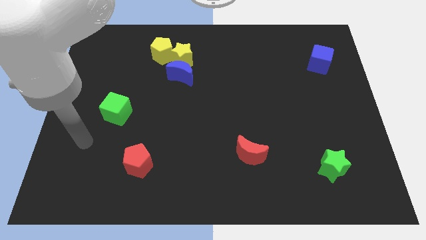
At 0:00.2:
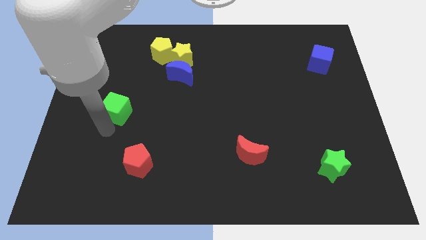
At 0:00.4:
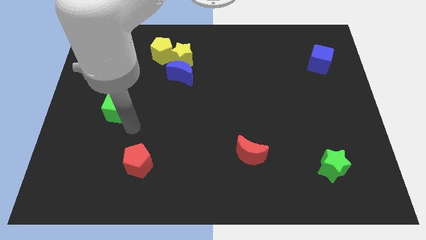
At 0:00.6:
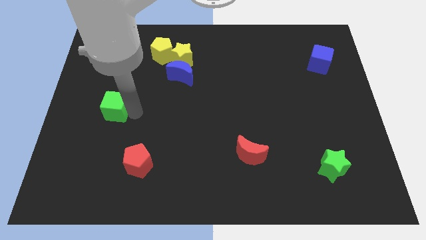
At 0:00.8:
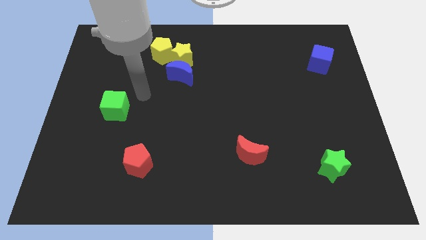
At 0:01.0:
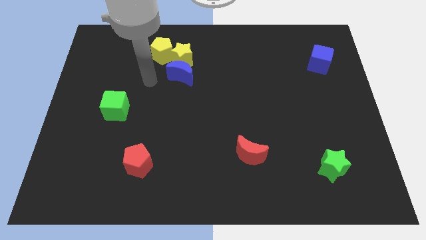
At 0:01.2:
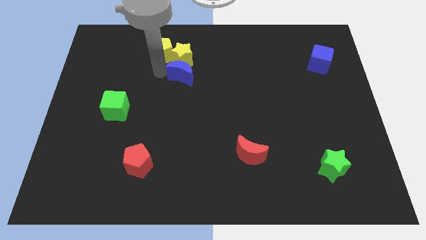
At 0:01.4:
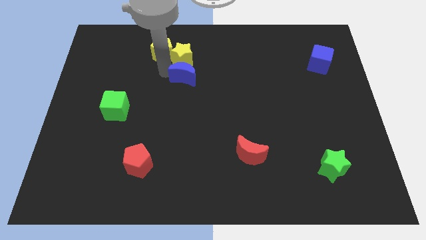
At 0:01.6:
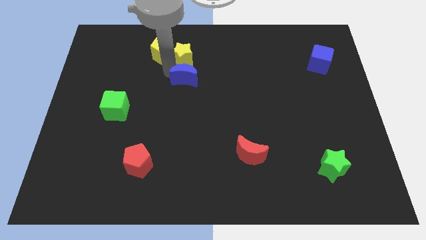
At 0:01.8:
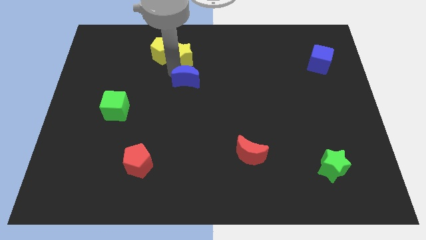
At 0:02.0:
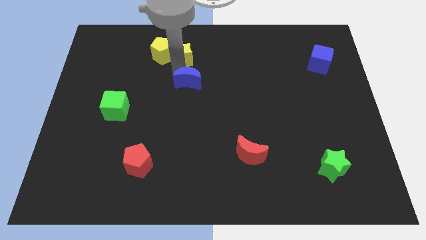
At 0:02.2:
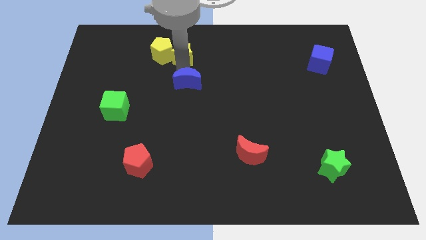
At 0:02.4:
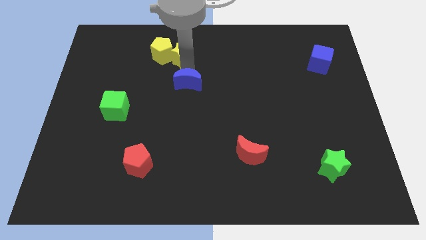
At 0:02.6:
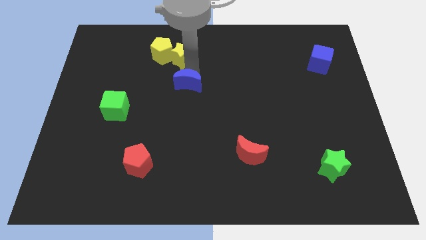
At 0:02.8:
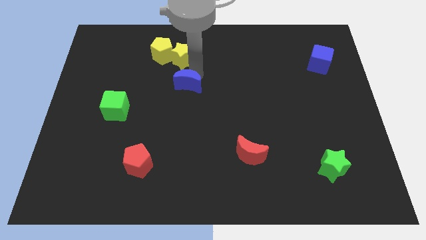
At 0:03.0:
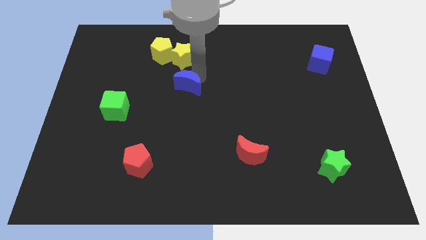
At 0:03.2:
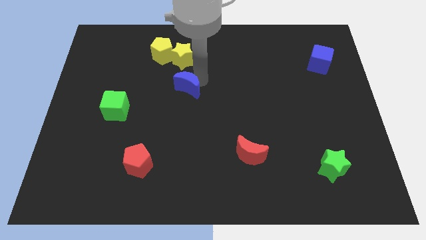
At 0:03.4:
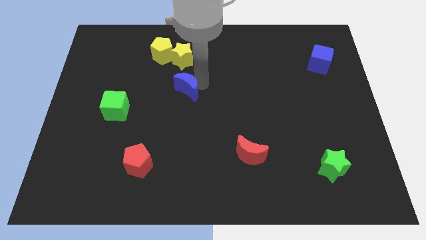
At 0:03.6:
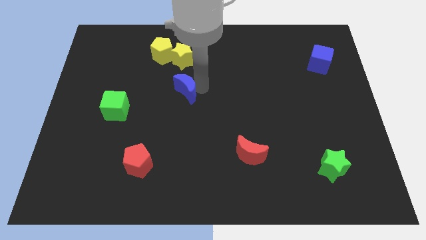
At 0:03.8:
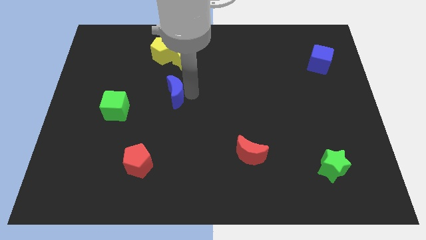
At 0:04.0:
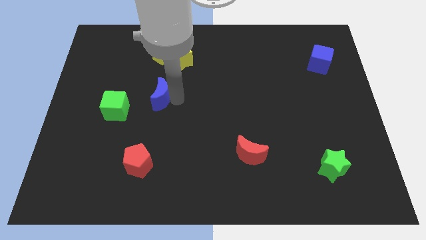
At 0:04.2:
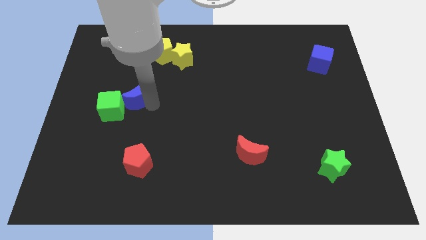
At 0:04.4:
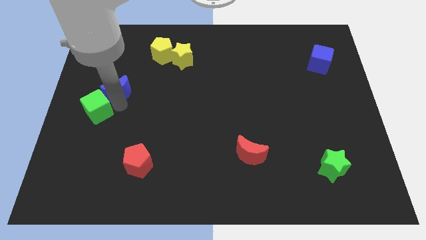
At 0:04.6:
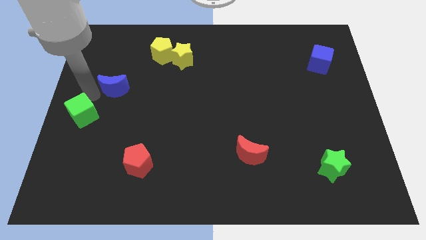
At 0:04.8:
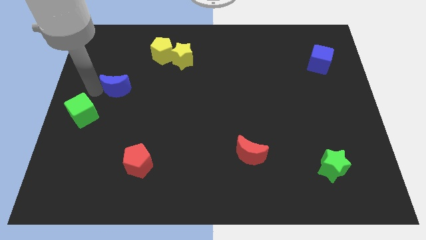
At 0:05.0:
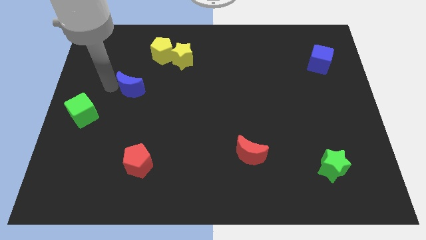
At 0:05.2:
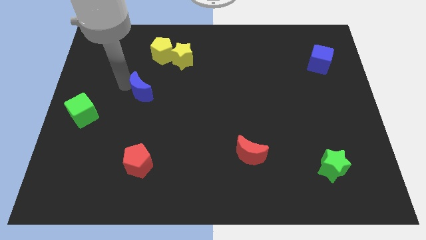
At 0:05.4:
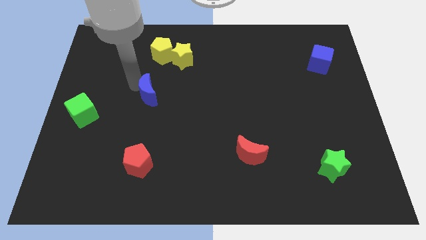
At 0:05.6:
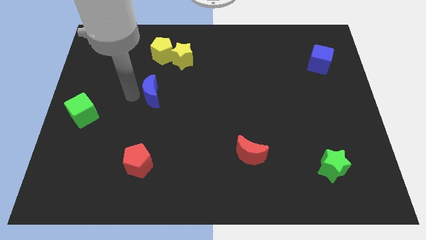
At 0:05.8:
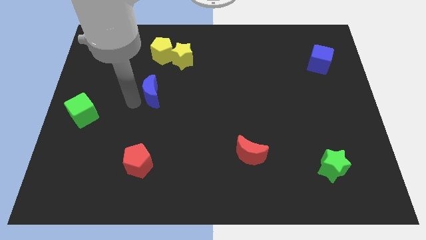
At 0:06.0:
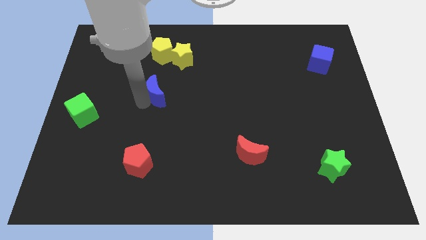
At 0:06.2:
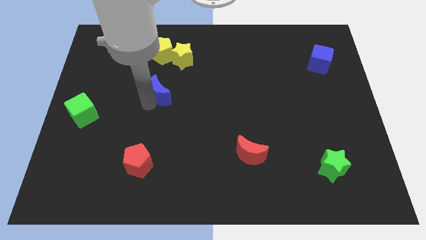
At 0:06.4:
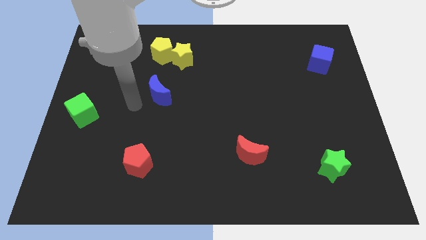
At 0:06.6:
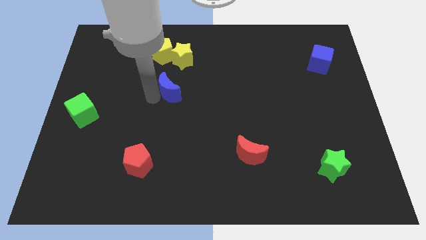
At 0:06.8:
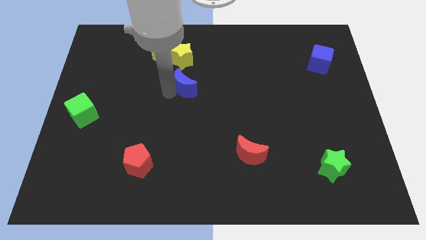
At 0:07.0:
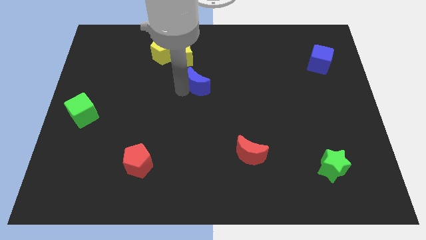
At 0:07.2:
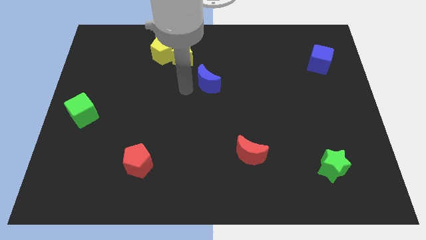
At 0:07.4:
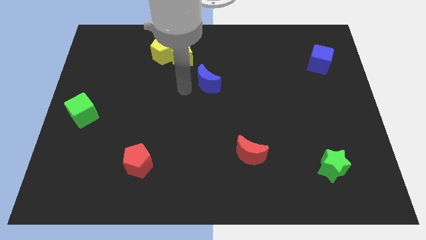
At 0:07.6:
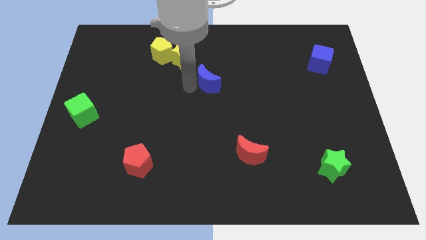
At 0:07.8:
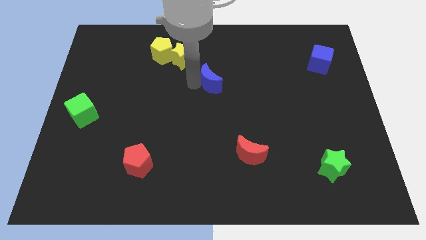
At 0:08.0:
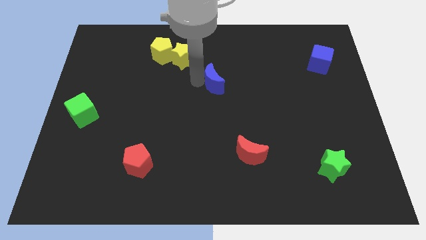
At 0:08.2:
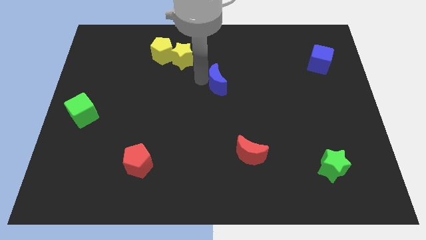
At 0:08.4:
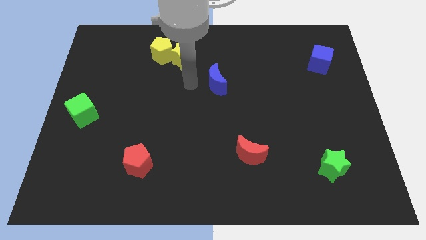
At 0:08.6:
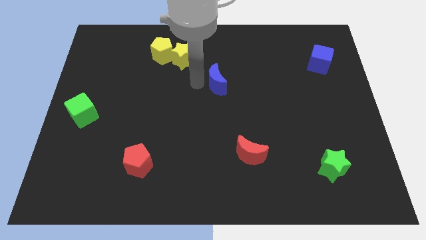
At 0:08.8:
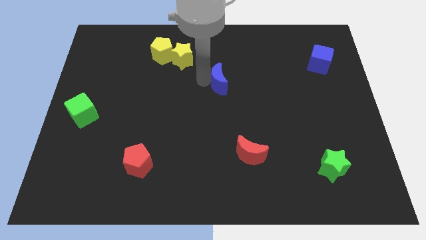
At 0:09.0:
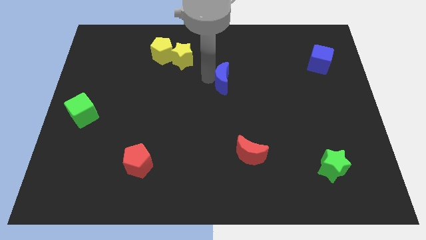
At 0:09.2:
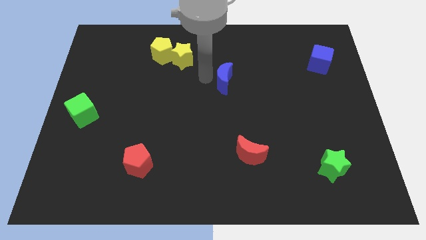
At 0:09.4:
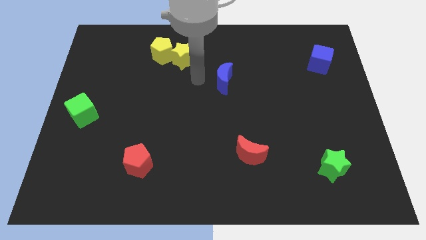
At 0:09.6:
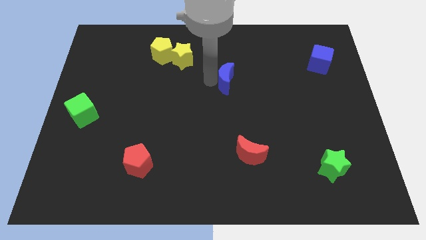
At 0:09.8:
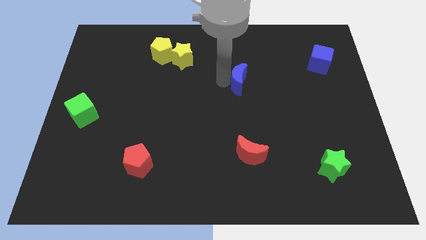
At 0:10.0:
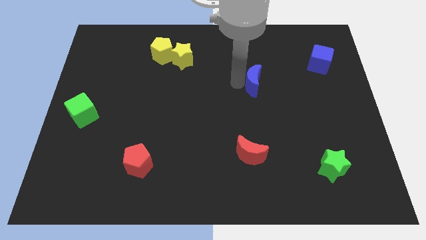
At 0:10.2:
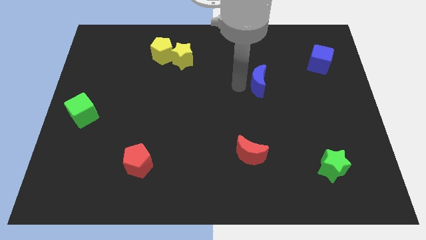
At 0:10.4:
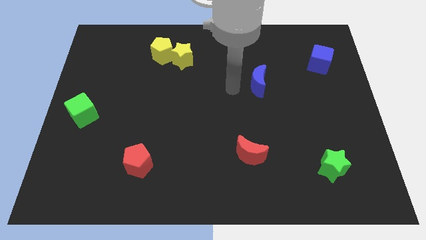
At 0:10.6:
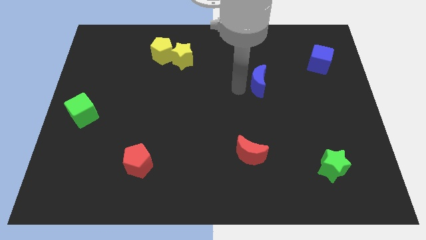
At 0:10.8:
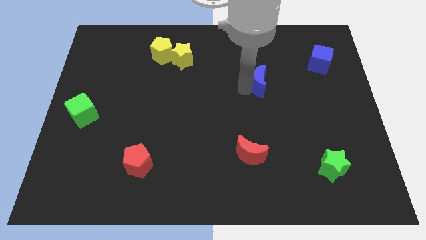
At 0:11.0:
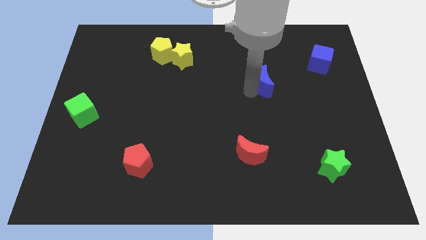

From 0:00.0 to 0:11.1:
slide the blue moon right

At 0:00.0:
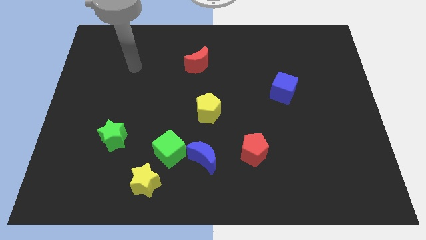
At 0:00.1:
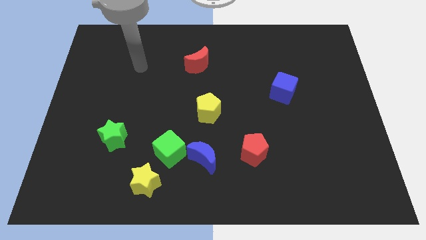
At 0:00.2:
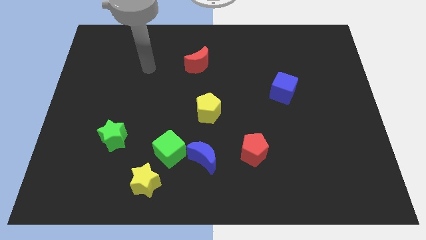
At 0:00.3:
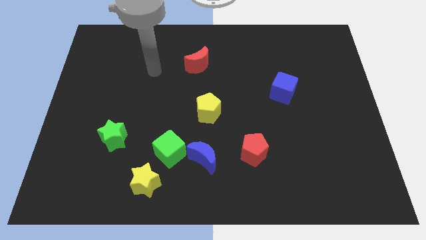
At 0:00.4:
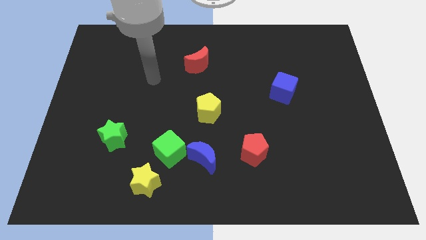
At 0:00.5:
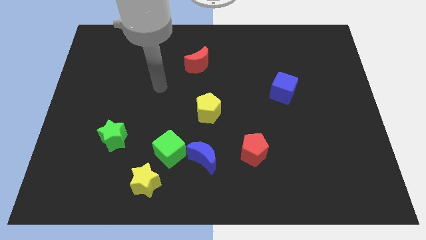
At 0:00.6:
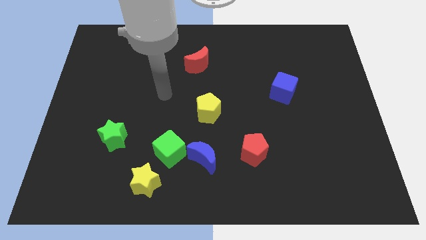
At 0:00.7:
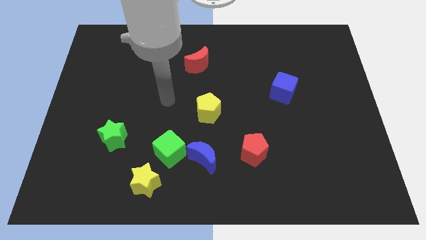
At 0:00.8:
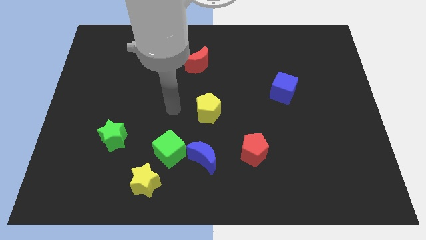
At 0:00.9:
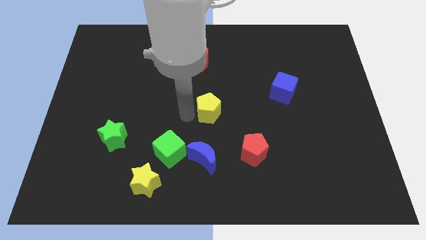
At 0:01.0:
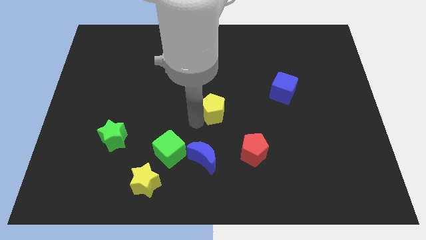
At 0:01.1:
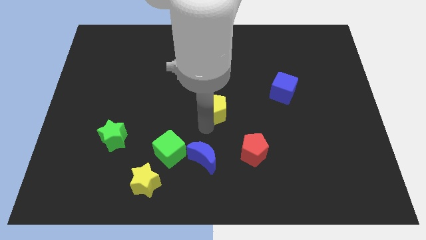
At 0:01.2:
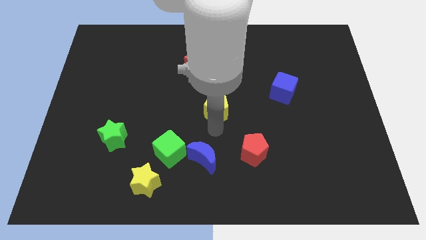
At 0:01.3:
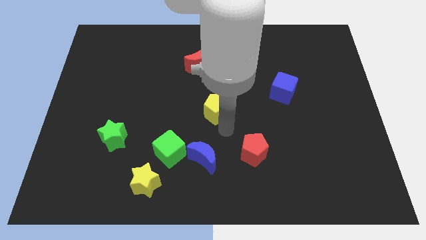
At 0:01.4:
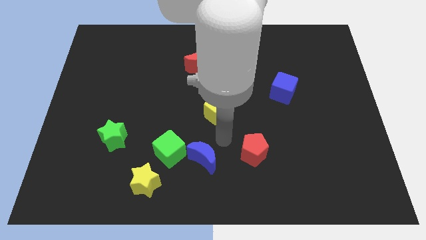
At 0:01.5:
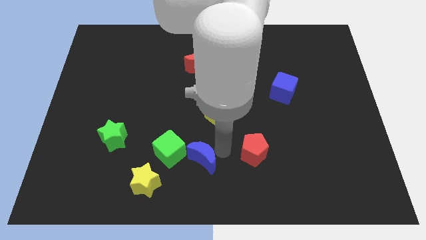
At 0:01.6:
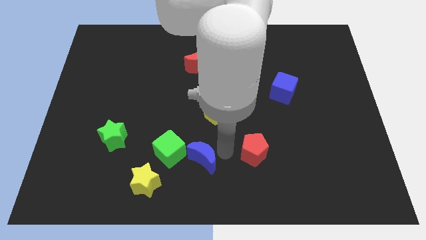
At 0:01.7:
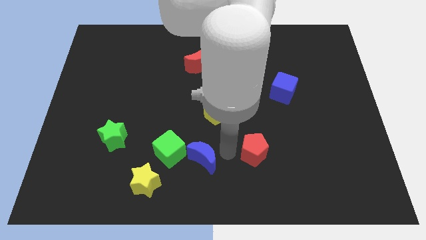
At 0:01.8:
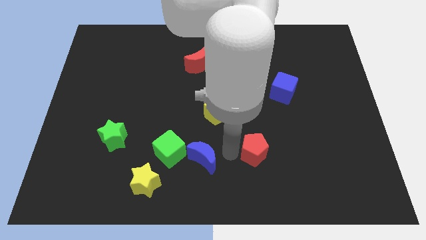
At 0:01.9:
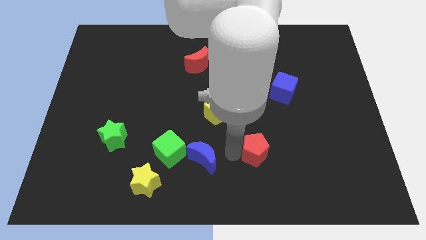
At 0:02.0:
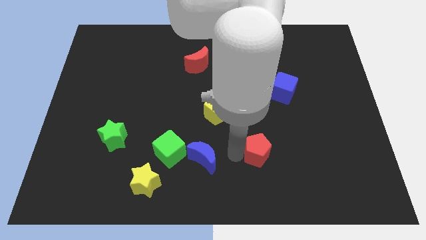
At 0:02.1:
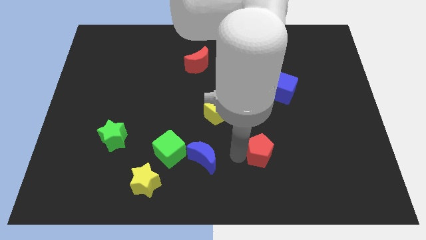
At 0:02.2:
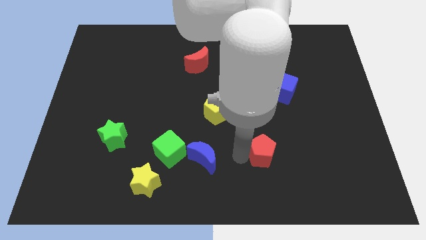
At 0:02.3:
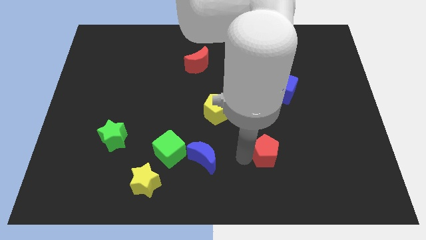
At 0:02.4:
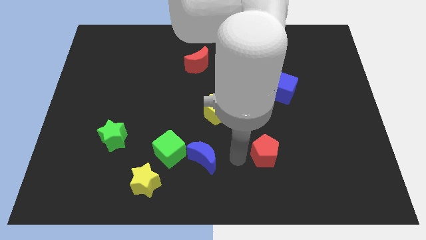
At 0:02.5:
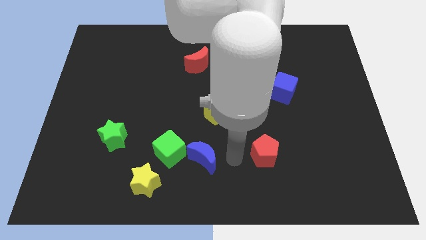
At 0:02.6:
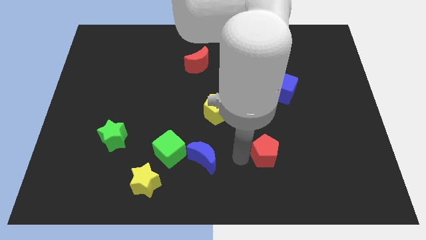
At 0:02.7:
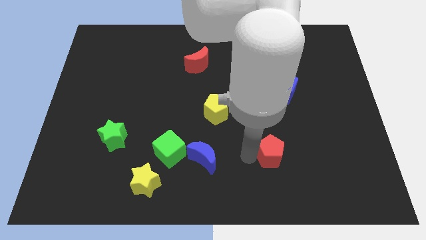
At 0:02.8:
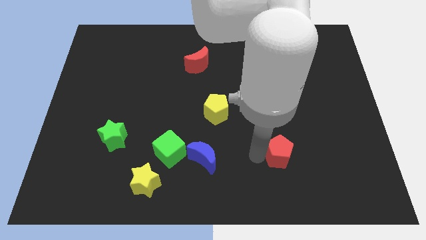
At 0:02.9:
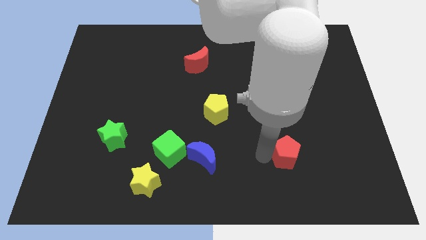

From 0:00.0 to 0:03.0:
move the red pentagon slightly to the right
